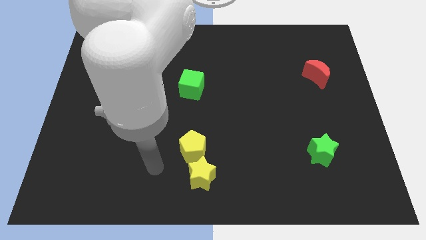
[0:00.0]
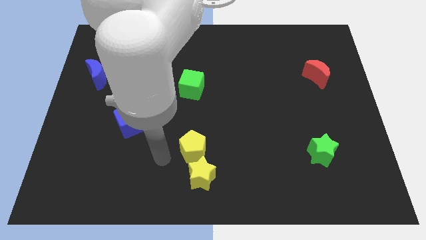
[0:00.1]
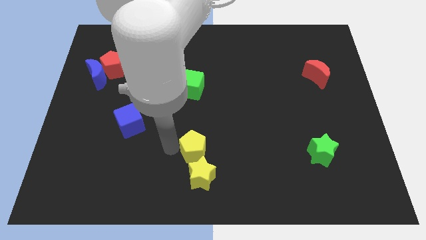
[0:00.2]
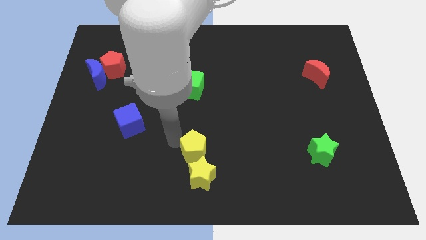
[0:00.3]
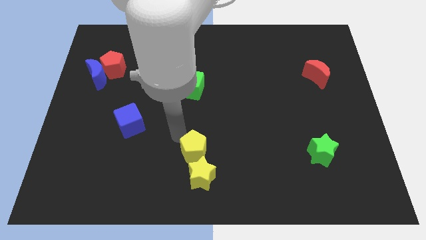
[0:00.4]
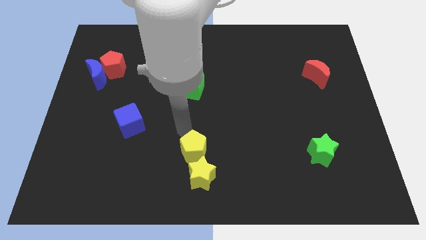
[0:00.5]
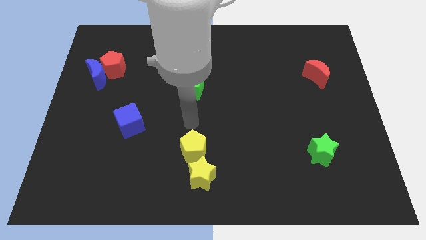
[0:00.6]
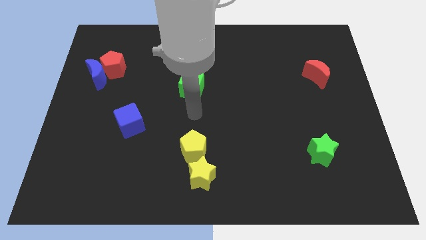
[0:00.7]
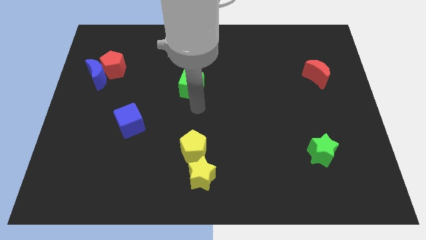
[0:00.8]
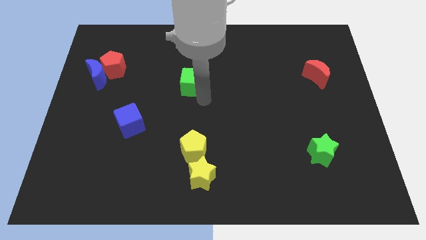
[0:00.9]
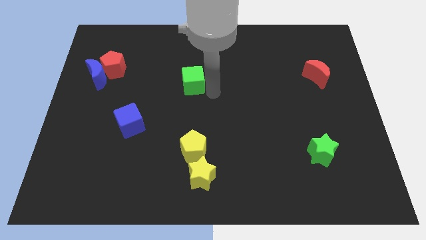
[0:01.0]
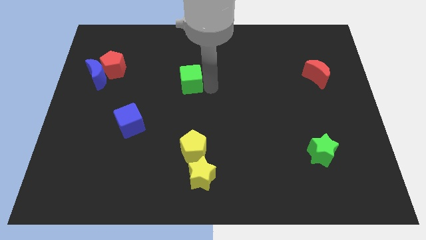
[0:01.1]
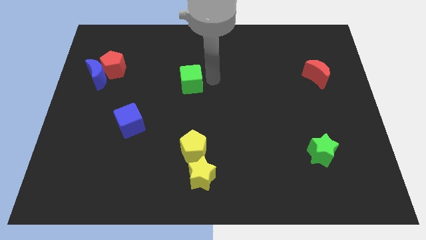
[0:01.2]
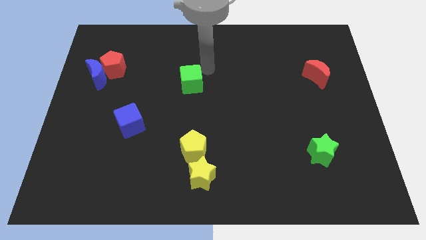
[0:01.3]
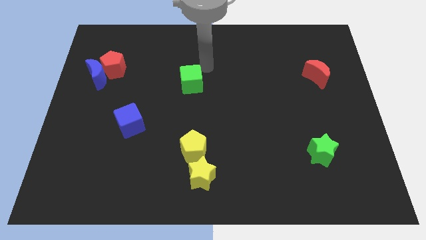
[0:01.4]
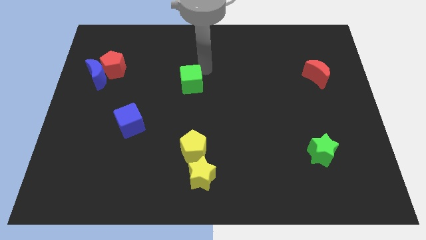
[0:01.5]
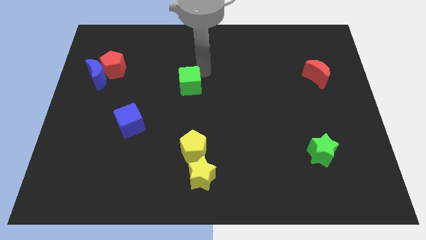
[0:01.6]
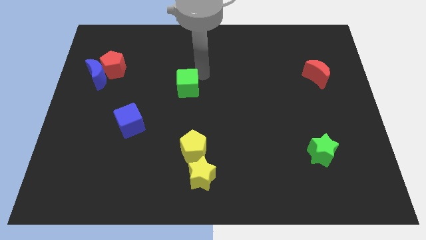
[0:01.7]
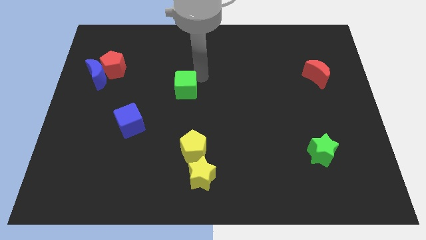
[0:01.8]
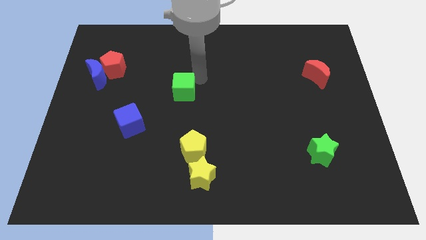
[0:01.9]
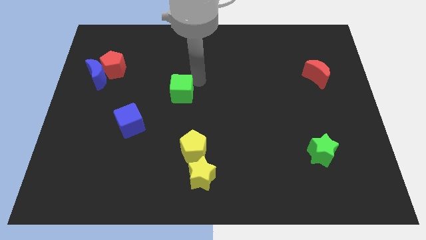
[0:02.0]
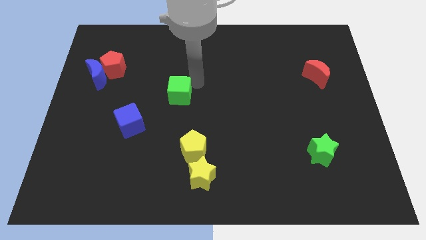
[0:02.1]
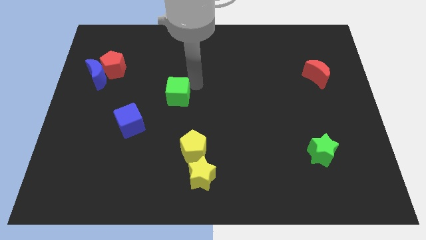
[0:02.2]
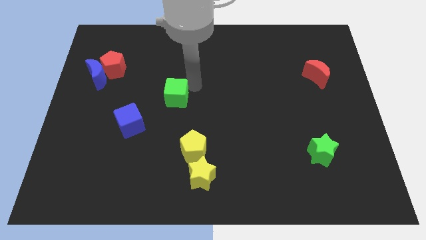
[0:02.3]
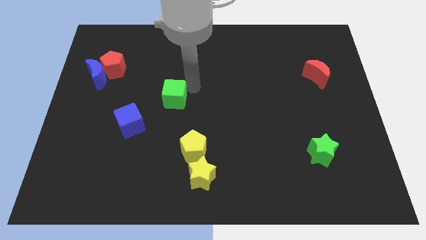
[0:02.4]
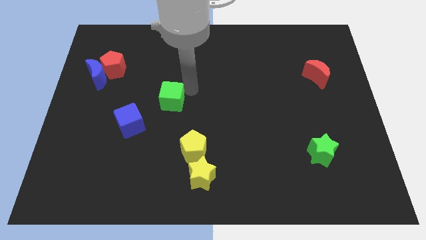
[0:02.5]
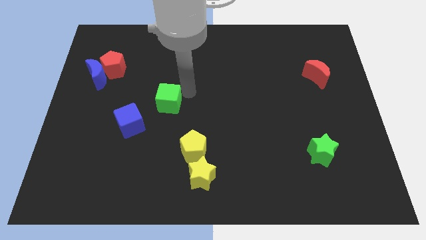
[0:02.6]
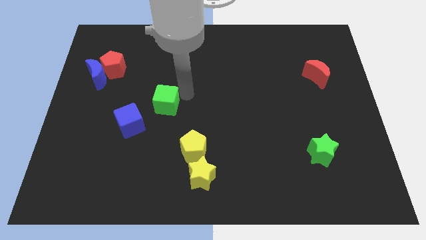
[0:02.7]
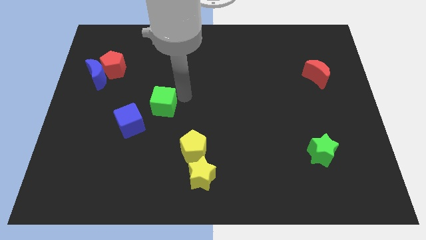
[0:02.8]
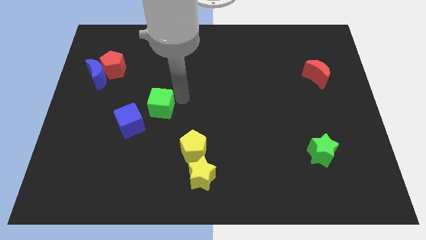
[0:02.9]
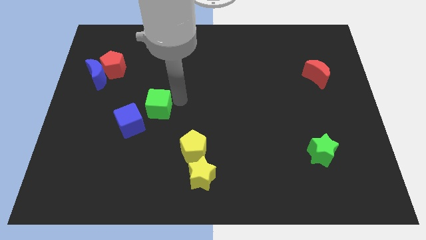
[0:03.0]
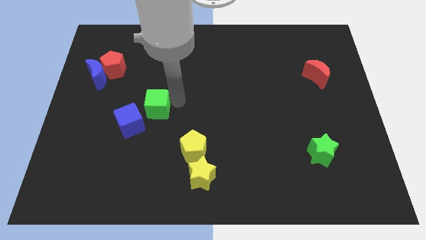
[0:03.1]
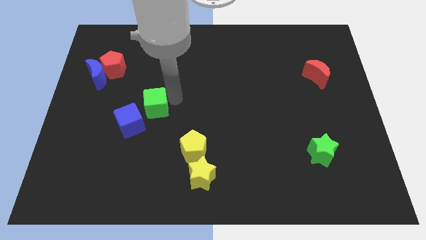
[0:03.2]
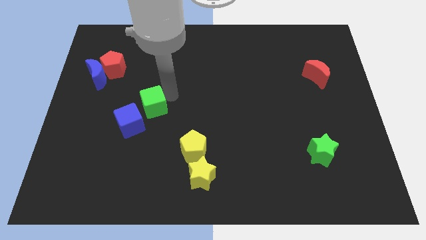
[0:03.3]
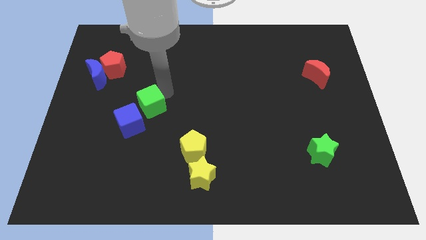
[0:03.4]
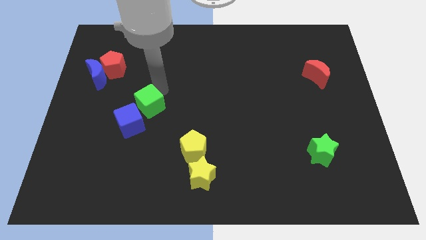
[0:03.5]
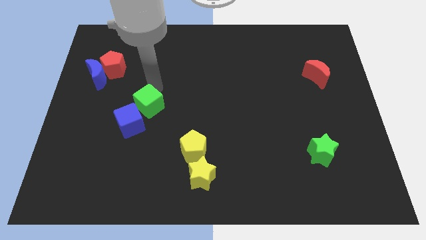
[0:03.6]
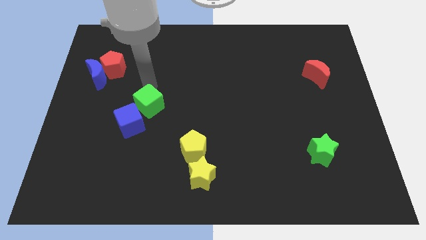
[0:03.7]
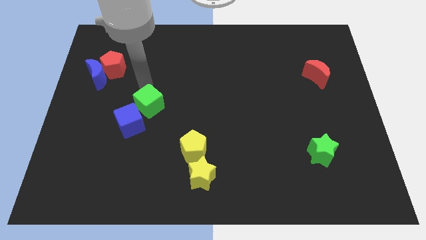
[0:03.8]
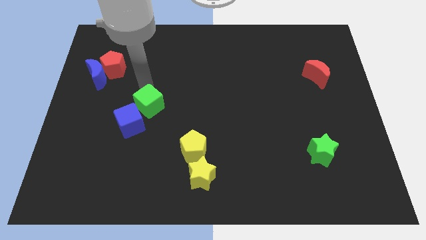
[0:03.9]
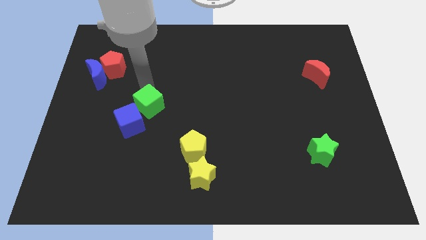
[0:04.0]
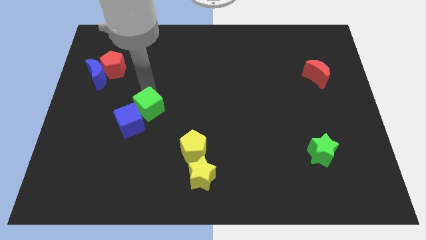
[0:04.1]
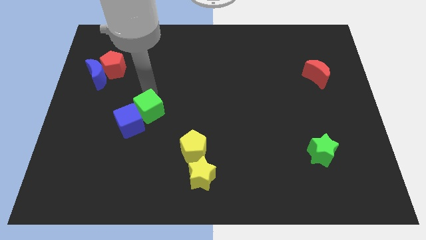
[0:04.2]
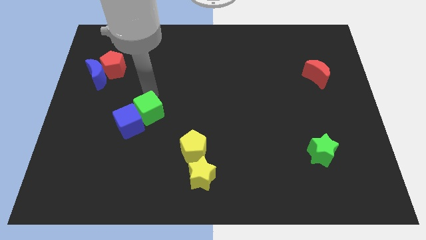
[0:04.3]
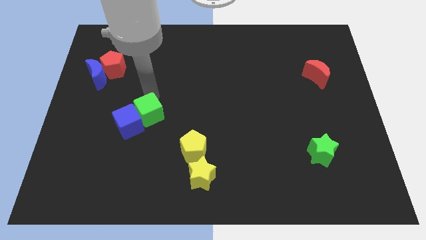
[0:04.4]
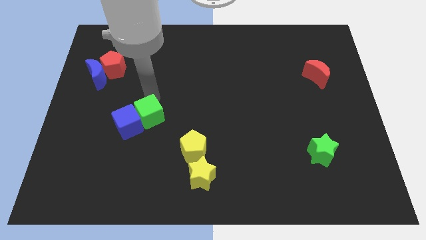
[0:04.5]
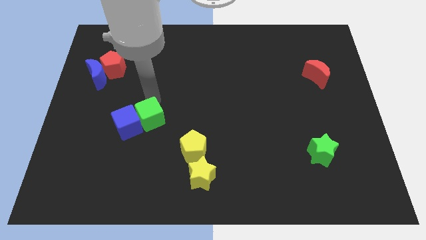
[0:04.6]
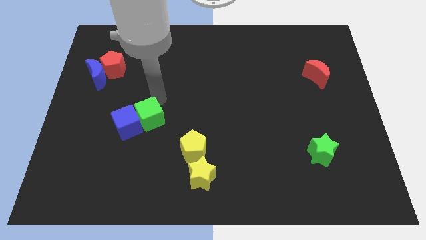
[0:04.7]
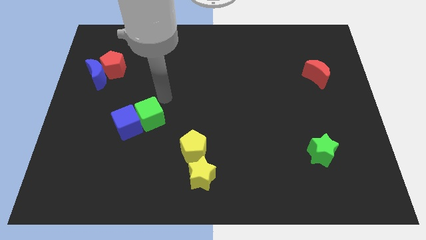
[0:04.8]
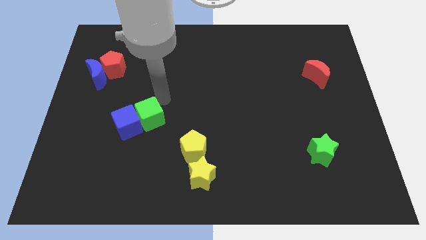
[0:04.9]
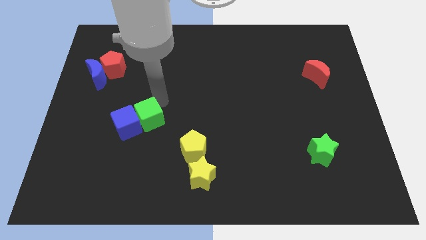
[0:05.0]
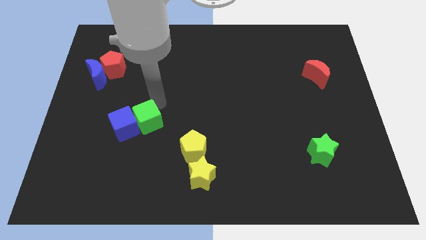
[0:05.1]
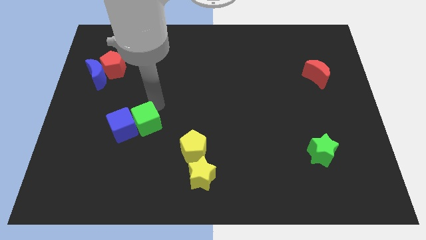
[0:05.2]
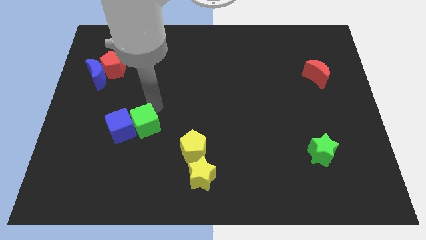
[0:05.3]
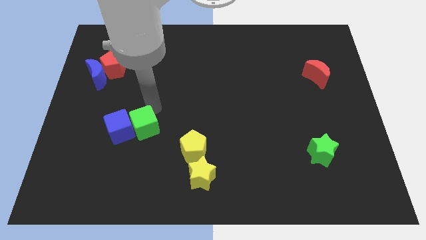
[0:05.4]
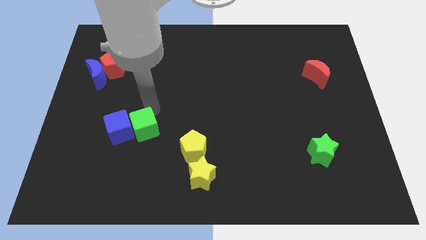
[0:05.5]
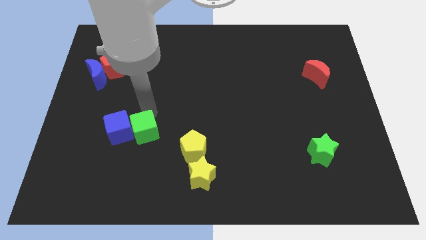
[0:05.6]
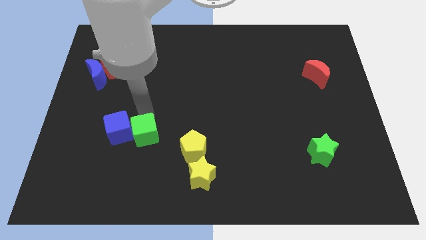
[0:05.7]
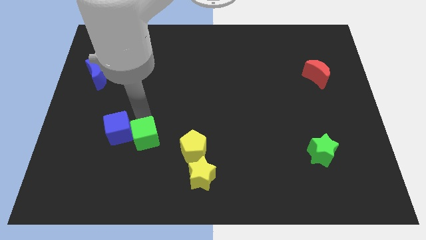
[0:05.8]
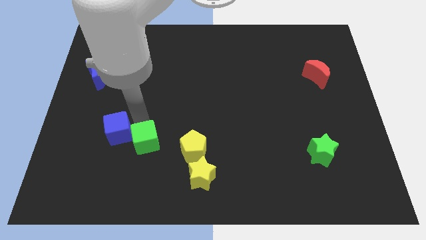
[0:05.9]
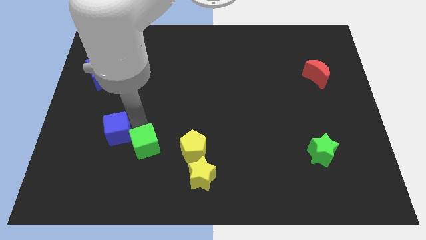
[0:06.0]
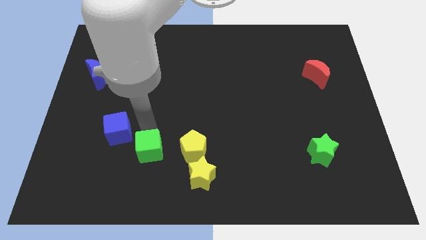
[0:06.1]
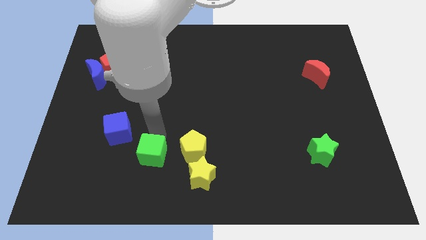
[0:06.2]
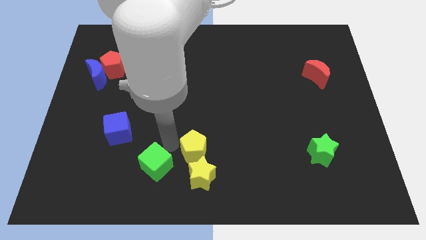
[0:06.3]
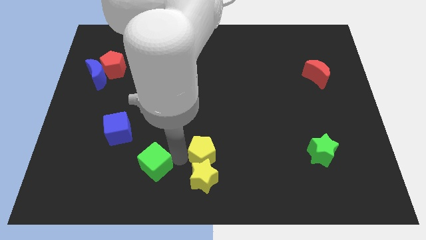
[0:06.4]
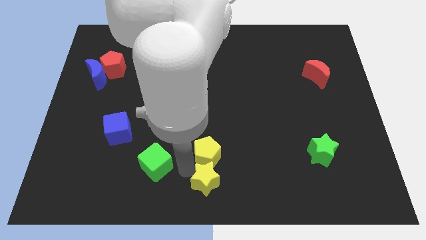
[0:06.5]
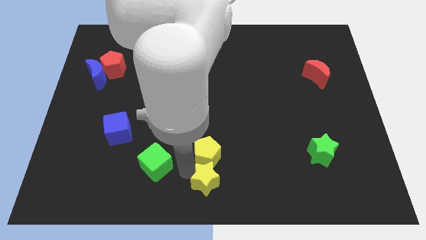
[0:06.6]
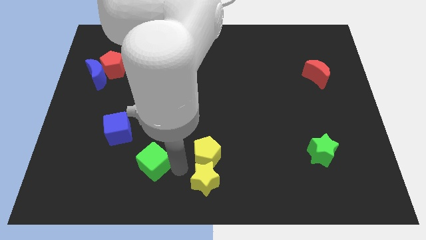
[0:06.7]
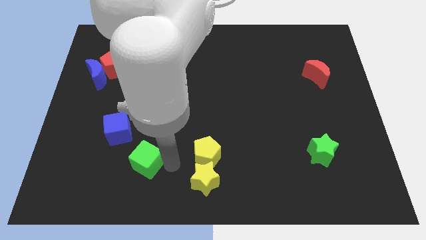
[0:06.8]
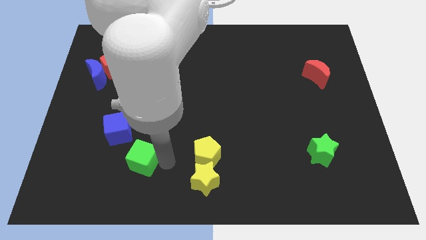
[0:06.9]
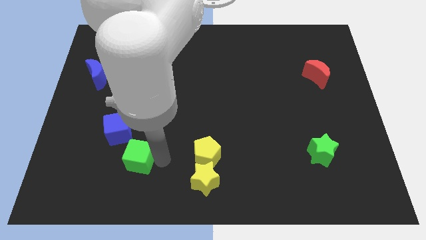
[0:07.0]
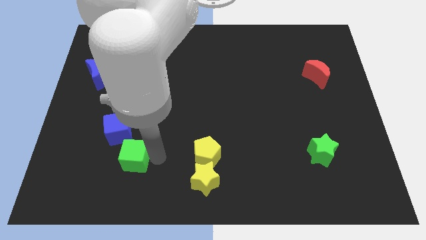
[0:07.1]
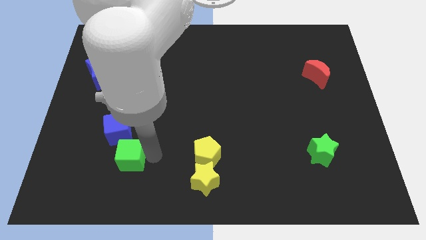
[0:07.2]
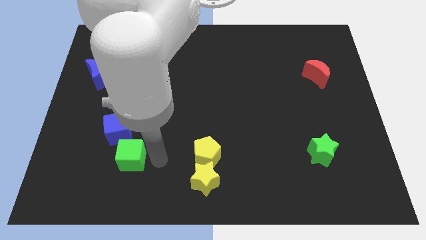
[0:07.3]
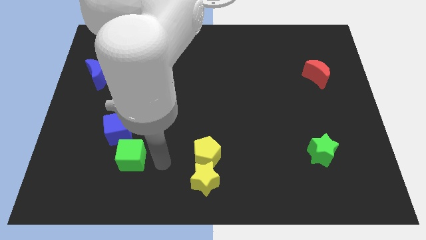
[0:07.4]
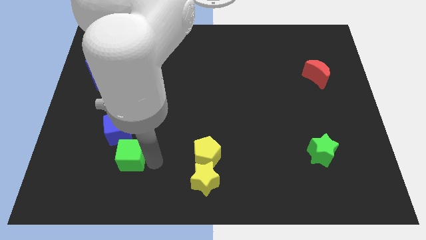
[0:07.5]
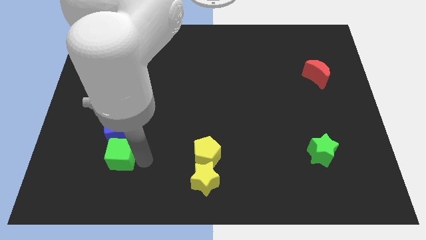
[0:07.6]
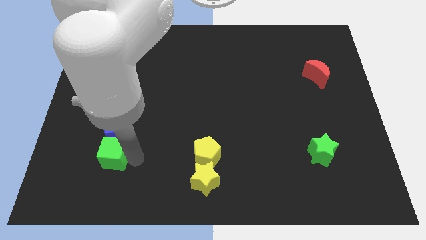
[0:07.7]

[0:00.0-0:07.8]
put the green cube diagonally down and to the left of the blue cube
